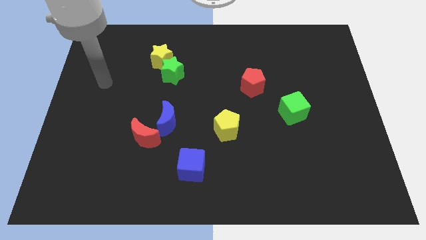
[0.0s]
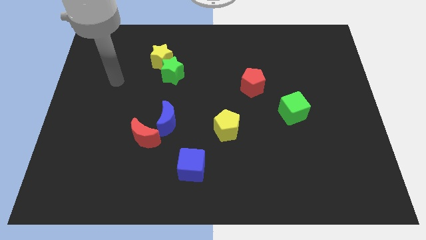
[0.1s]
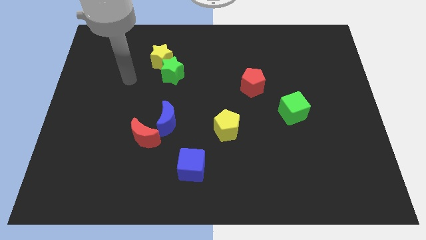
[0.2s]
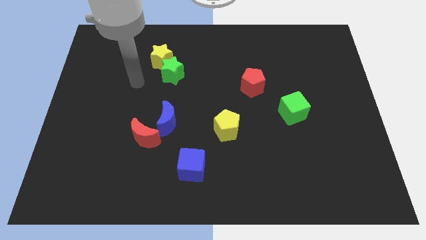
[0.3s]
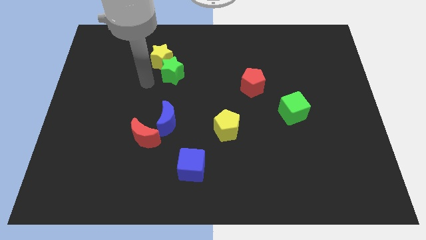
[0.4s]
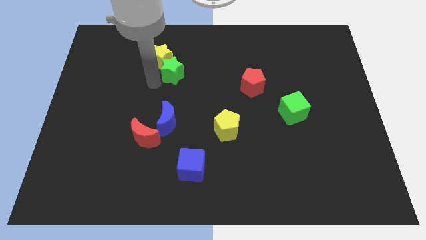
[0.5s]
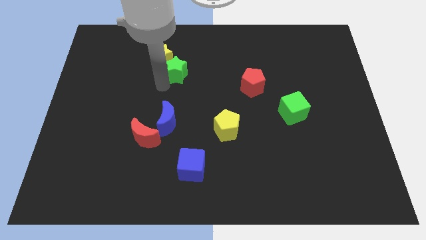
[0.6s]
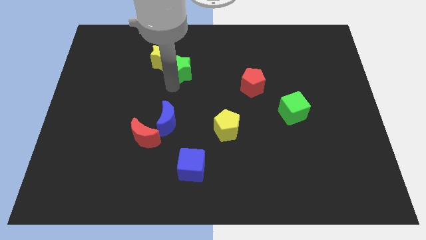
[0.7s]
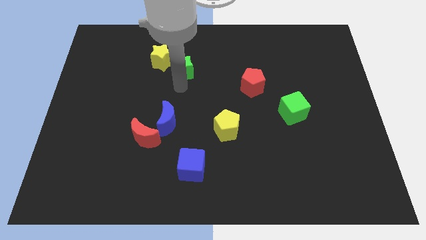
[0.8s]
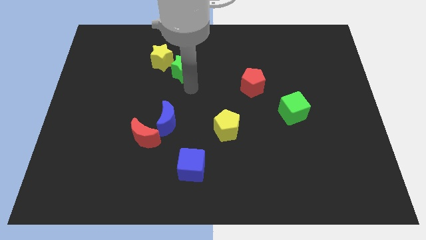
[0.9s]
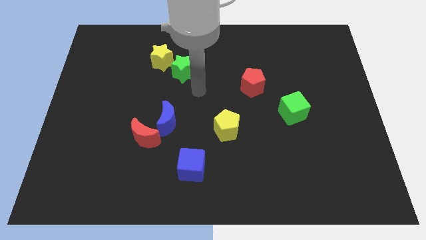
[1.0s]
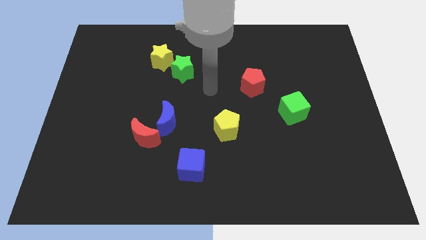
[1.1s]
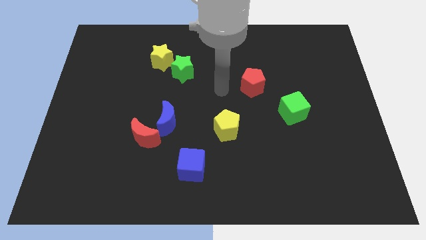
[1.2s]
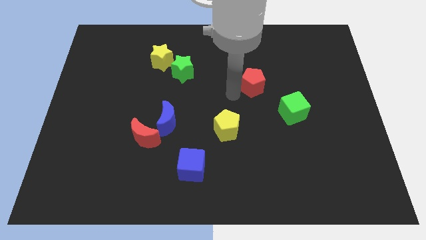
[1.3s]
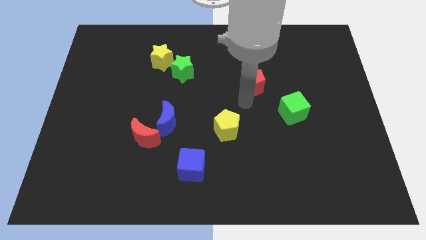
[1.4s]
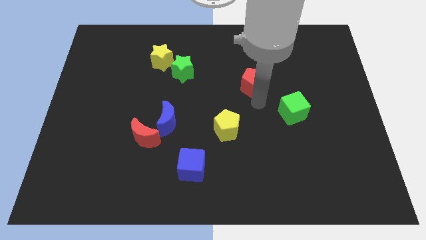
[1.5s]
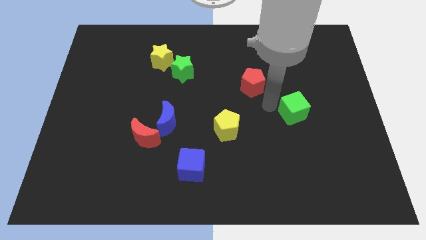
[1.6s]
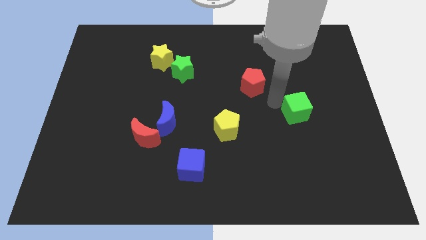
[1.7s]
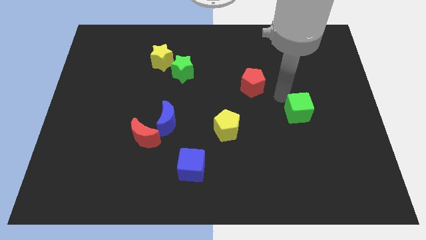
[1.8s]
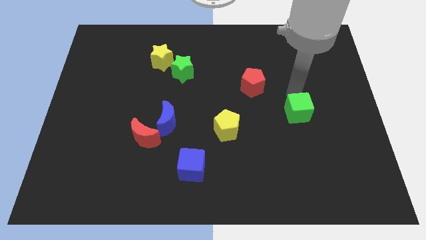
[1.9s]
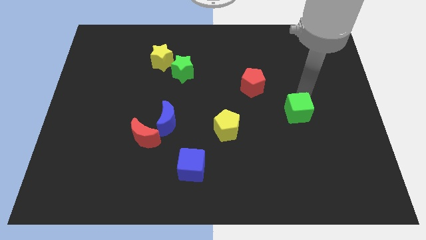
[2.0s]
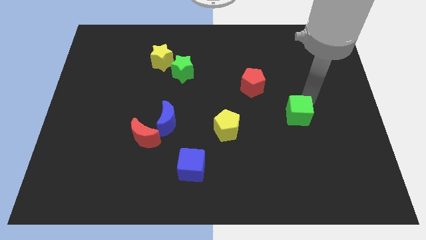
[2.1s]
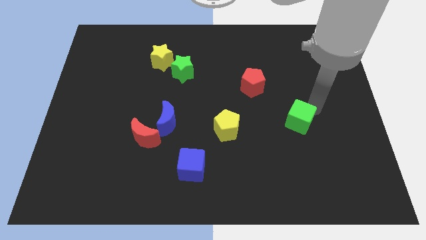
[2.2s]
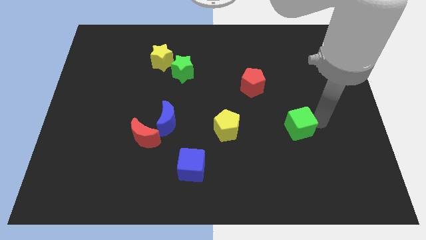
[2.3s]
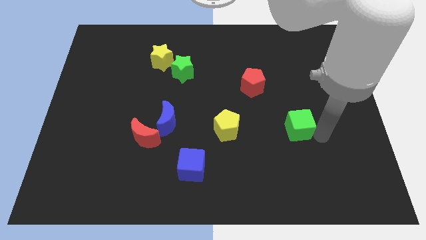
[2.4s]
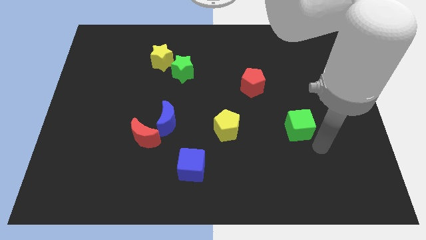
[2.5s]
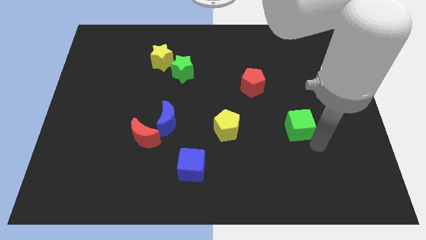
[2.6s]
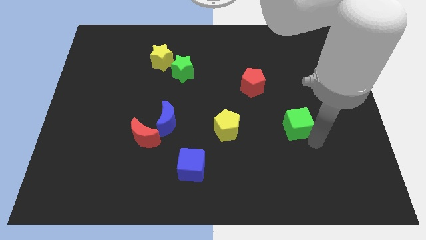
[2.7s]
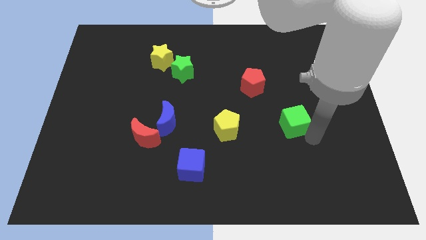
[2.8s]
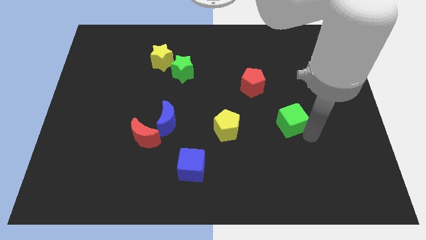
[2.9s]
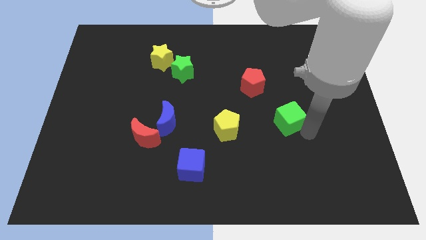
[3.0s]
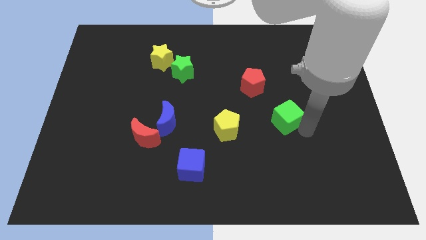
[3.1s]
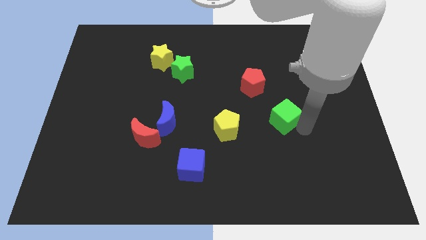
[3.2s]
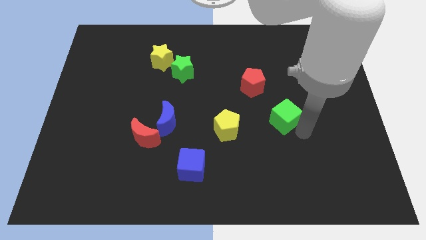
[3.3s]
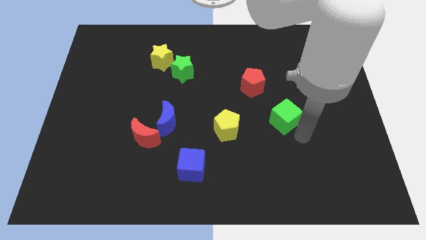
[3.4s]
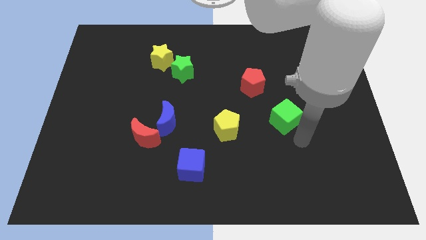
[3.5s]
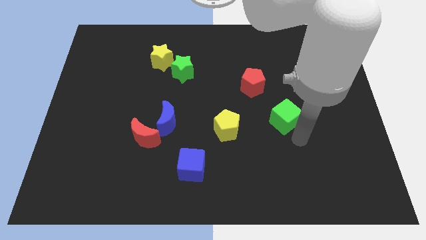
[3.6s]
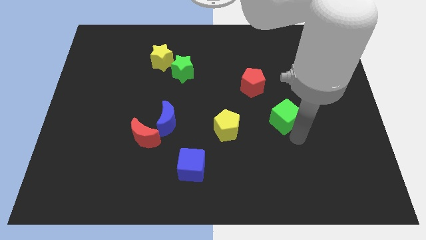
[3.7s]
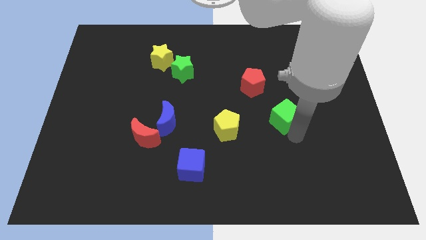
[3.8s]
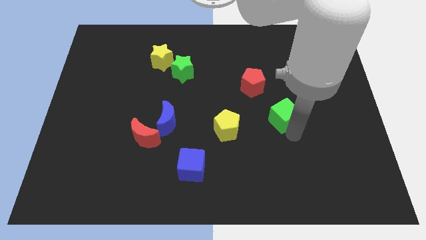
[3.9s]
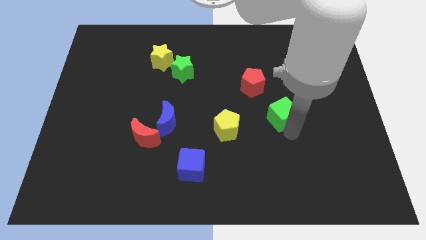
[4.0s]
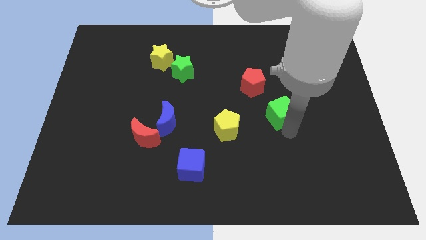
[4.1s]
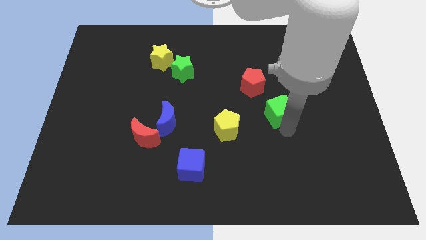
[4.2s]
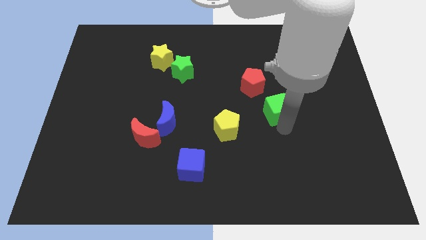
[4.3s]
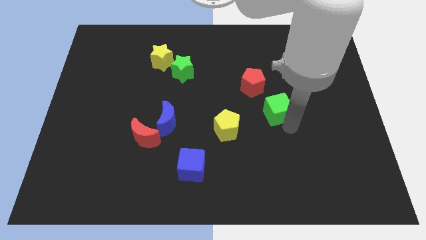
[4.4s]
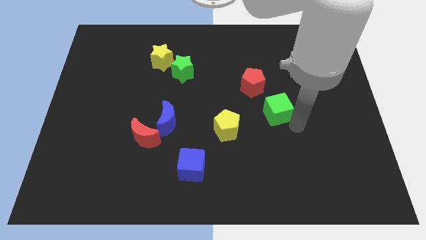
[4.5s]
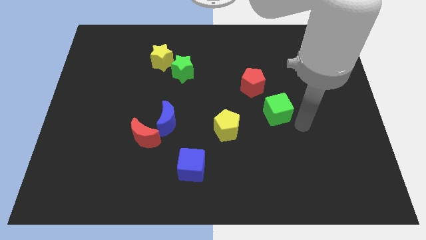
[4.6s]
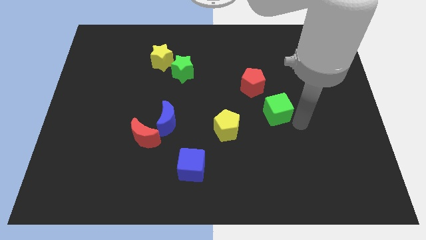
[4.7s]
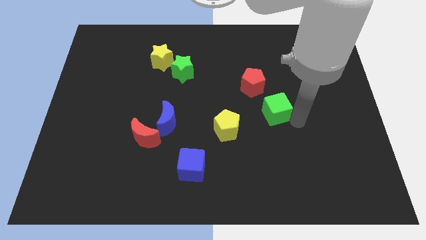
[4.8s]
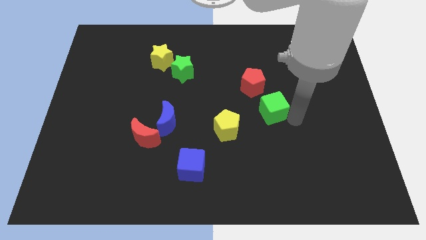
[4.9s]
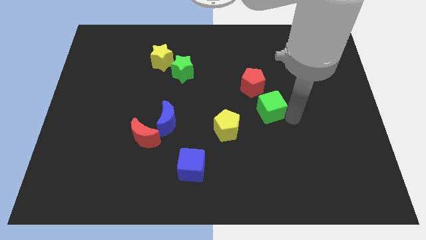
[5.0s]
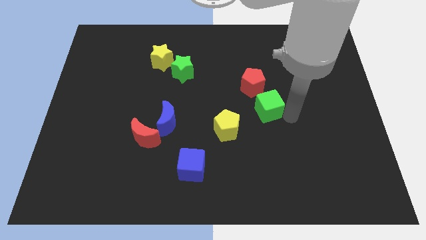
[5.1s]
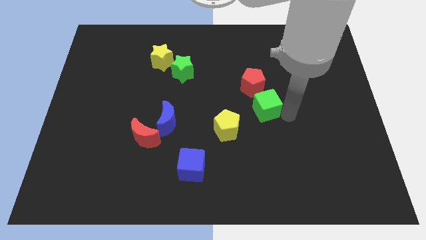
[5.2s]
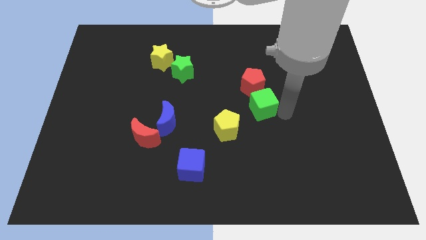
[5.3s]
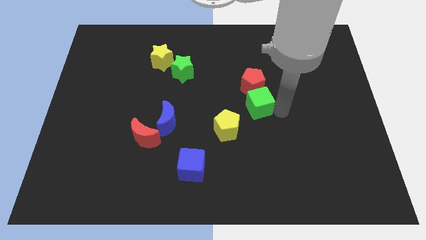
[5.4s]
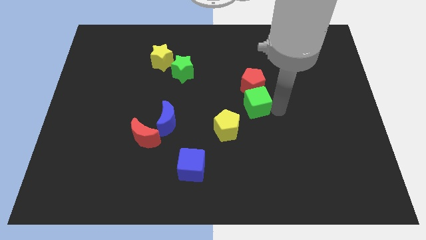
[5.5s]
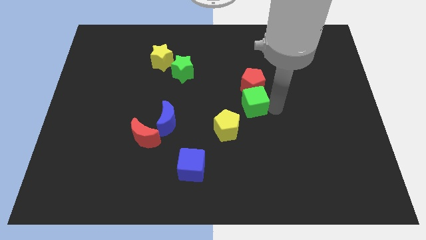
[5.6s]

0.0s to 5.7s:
push the green cube a little up and to the left

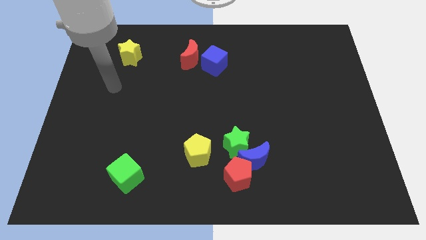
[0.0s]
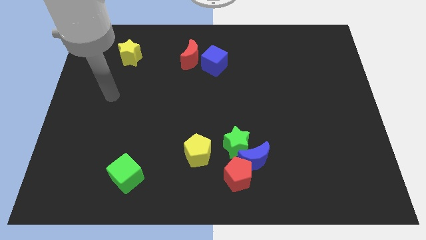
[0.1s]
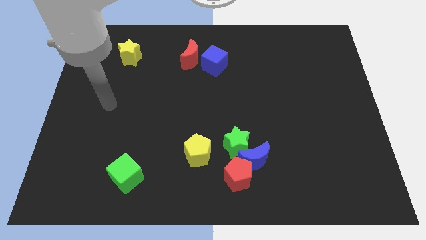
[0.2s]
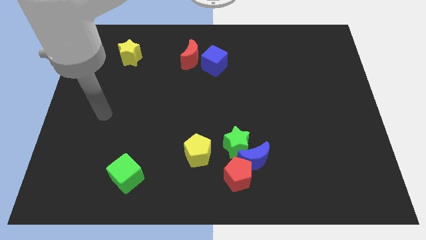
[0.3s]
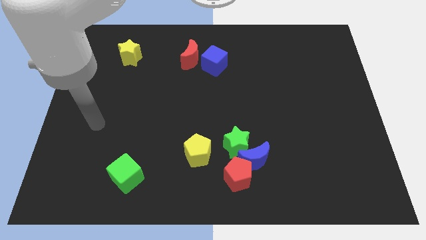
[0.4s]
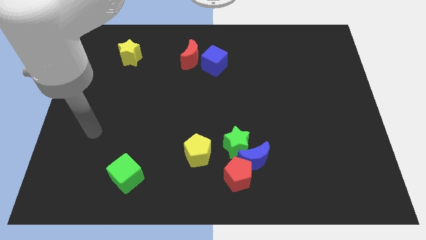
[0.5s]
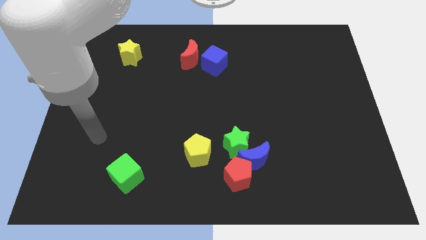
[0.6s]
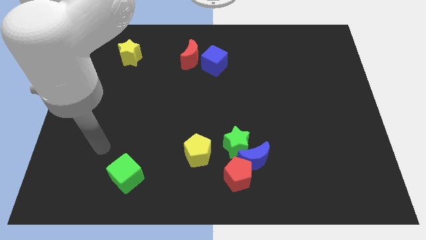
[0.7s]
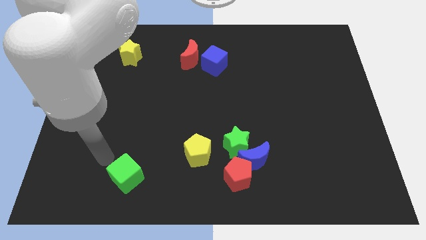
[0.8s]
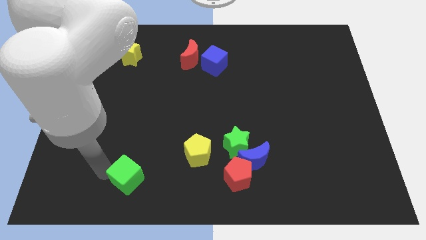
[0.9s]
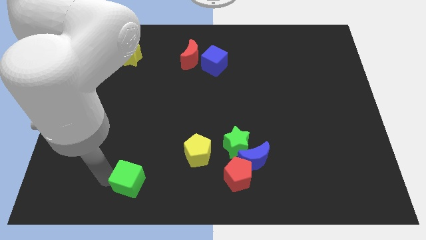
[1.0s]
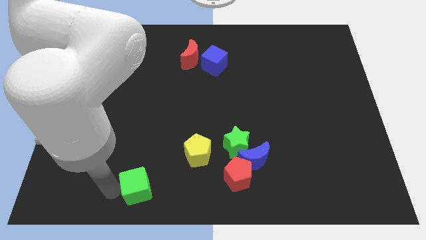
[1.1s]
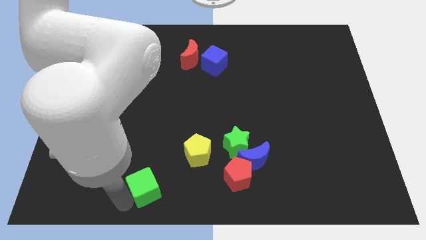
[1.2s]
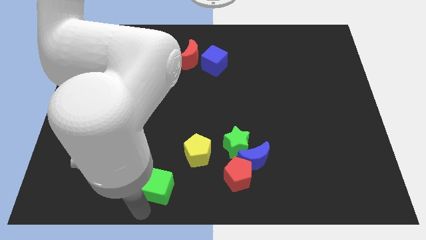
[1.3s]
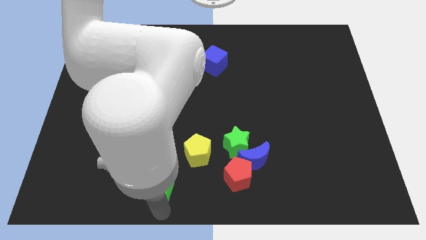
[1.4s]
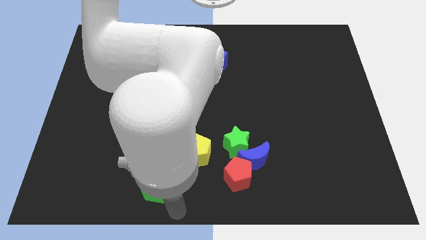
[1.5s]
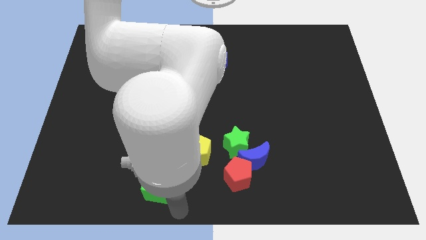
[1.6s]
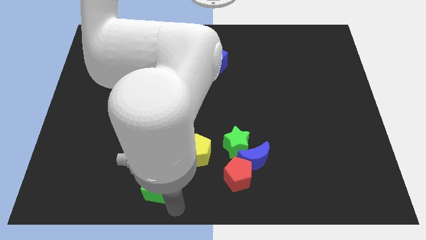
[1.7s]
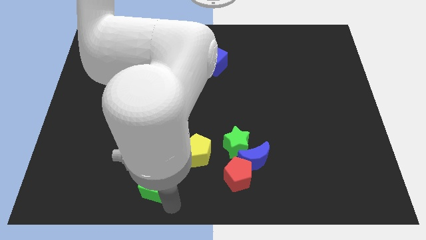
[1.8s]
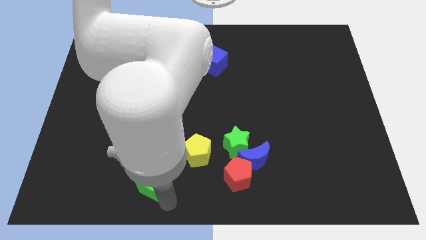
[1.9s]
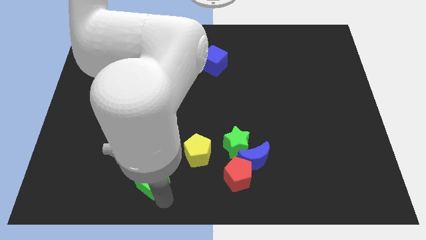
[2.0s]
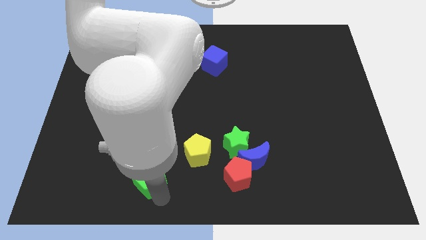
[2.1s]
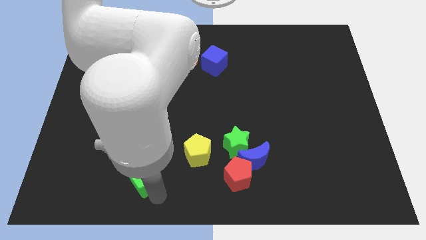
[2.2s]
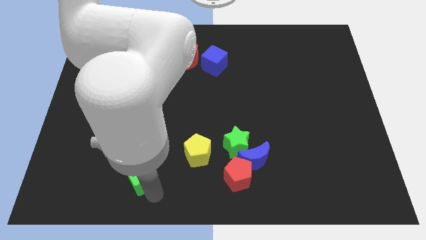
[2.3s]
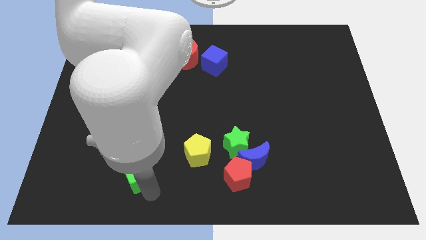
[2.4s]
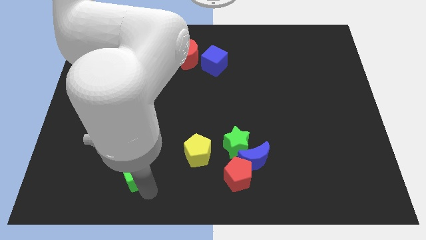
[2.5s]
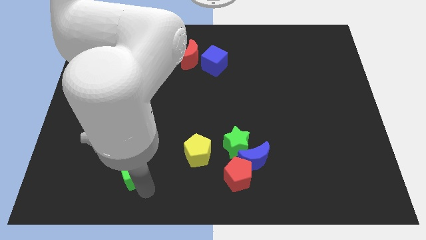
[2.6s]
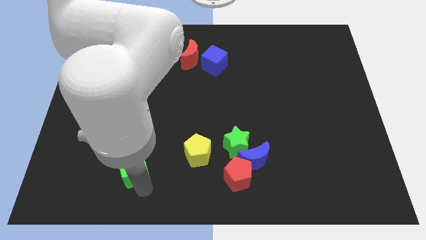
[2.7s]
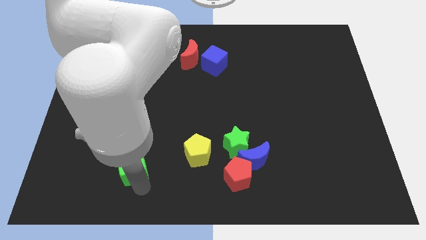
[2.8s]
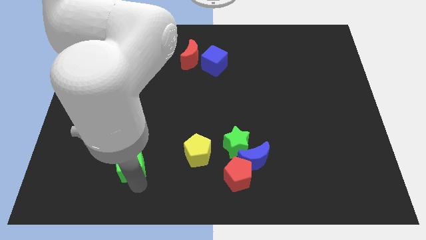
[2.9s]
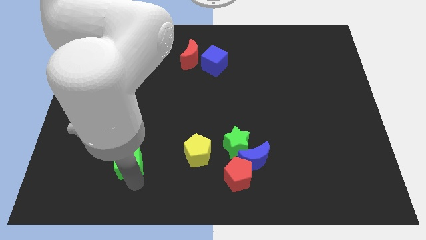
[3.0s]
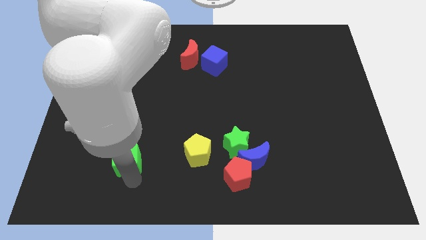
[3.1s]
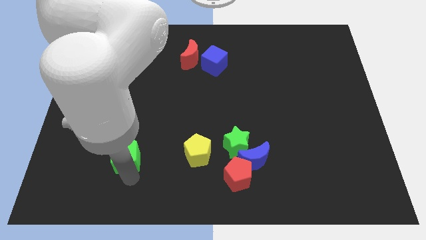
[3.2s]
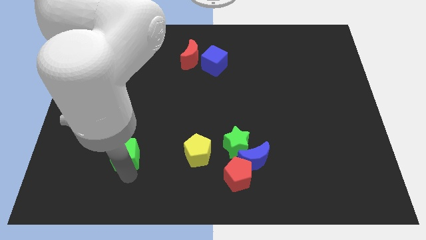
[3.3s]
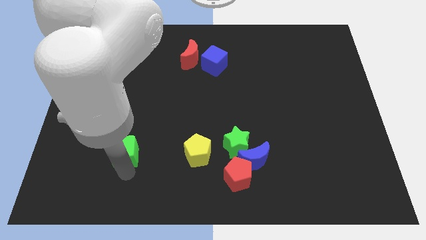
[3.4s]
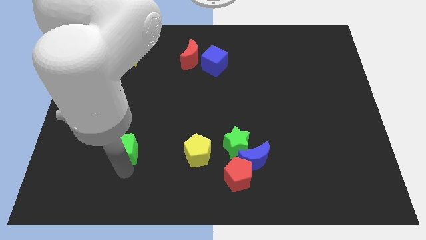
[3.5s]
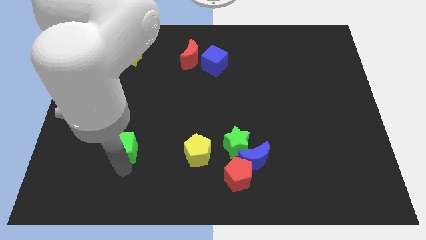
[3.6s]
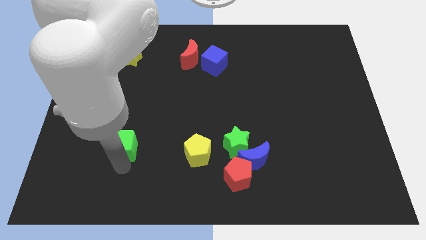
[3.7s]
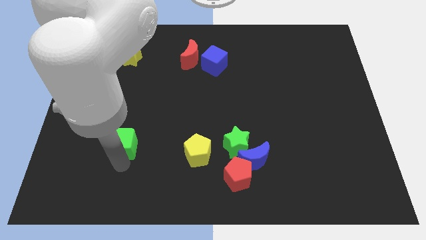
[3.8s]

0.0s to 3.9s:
slightly slide the green cube upwards
